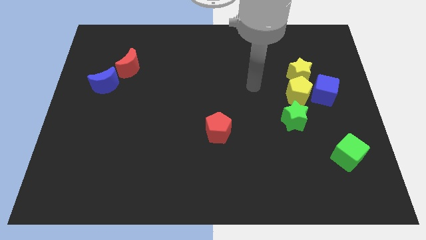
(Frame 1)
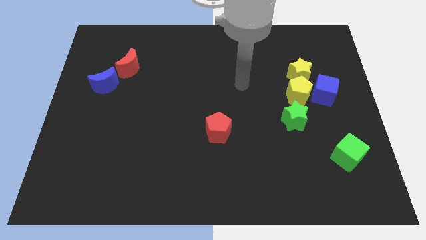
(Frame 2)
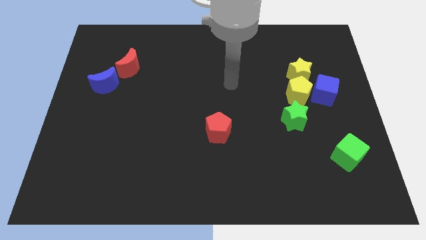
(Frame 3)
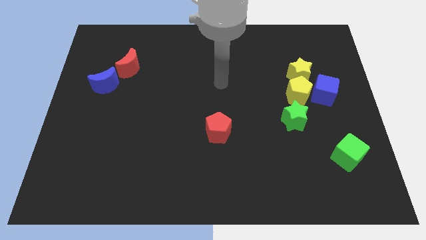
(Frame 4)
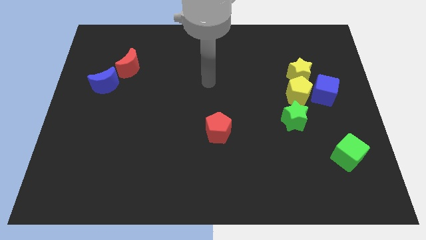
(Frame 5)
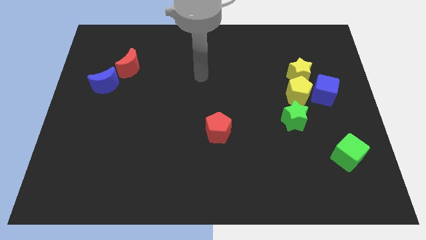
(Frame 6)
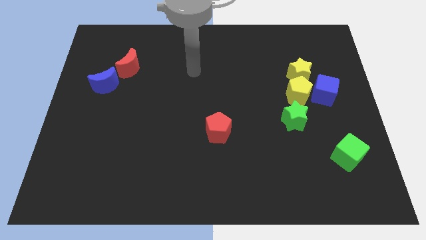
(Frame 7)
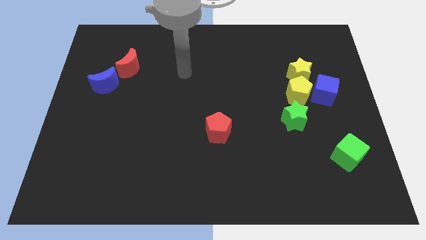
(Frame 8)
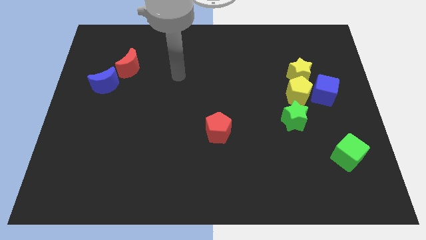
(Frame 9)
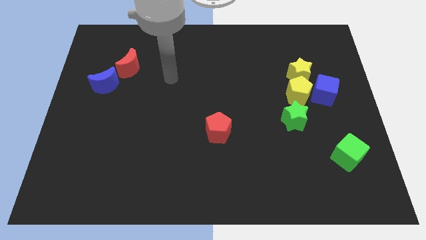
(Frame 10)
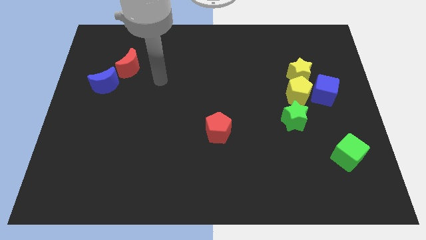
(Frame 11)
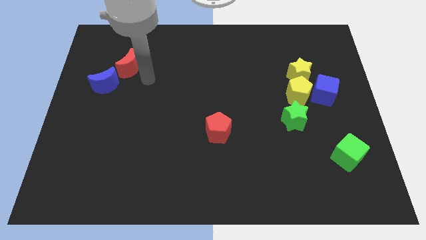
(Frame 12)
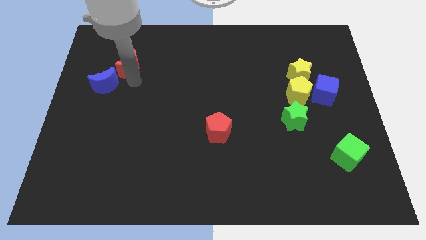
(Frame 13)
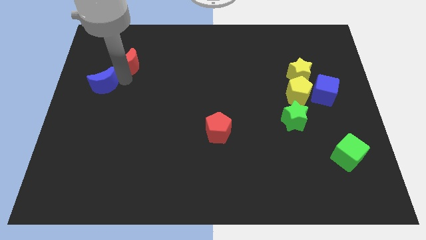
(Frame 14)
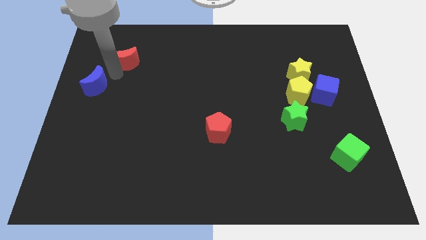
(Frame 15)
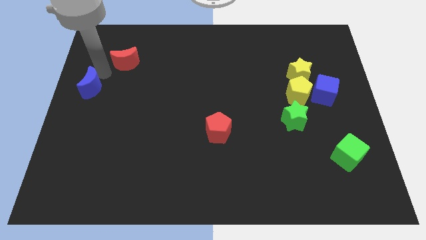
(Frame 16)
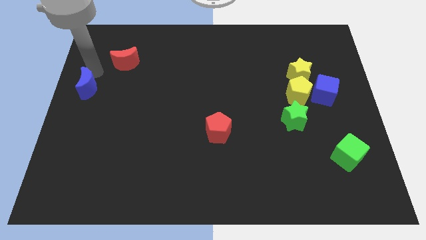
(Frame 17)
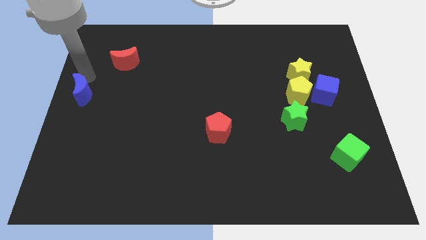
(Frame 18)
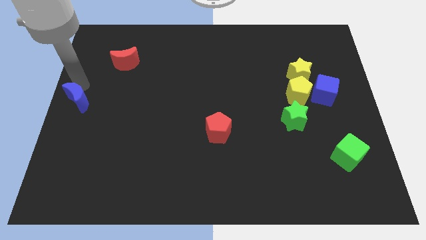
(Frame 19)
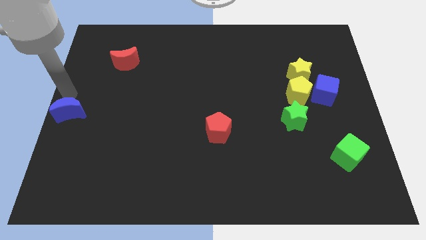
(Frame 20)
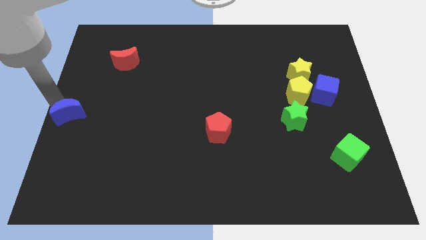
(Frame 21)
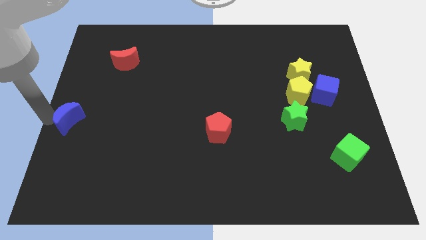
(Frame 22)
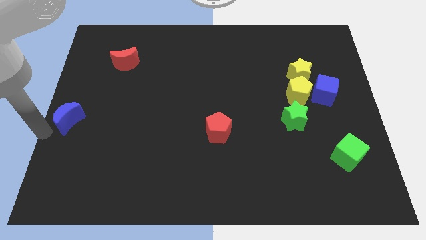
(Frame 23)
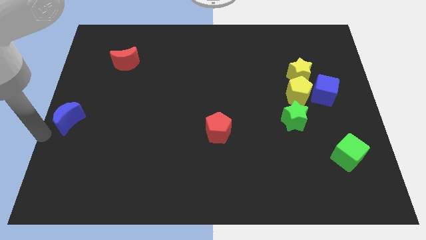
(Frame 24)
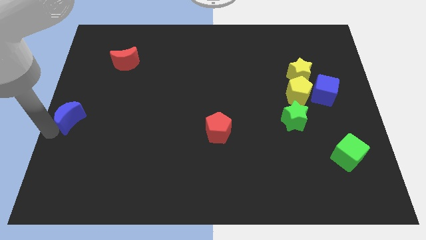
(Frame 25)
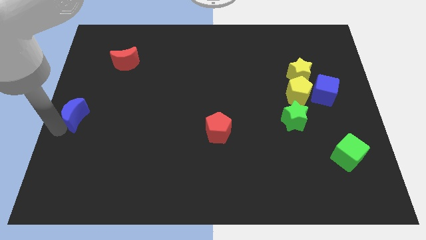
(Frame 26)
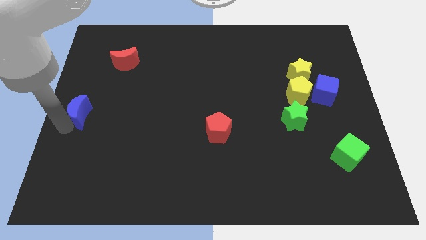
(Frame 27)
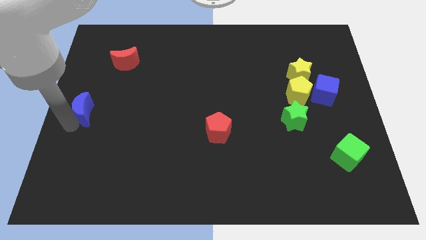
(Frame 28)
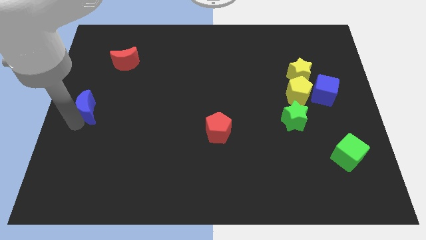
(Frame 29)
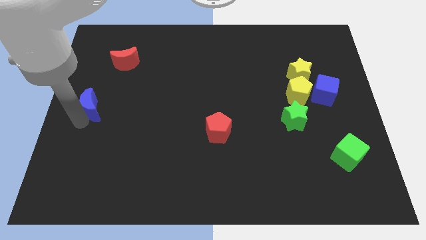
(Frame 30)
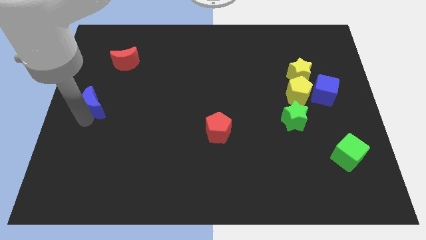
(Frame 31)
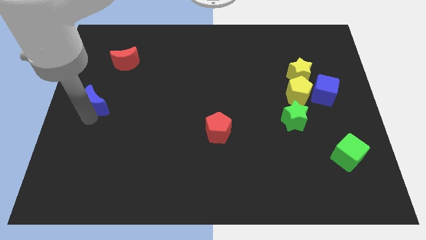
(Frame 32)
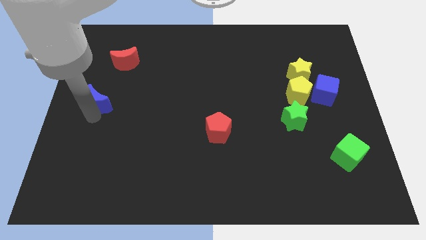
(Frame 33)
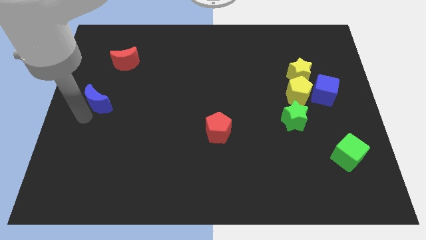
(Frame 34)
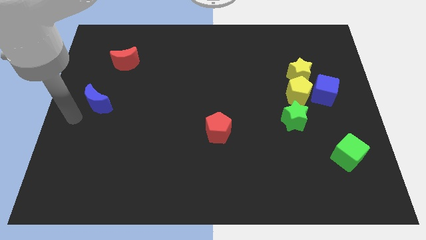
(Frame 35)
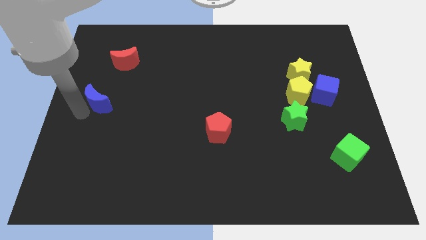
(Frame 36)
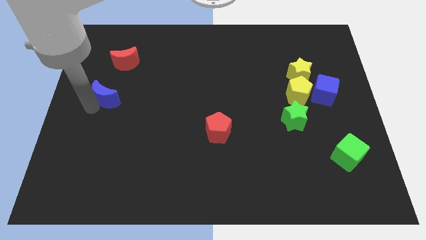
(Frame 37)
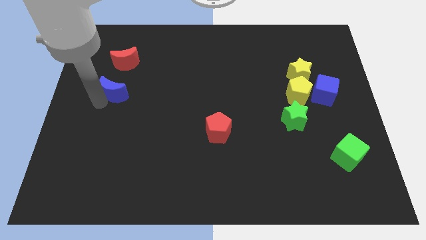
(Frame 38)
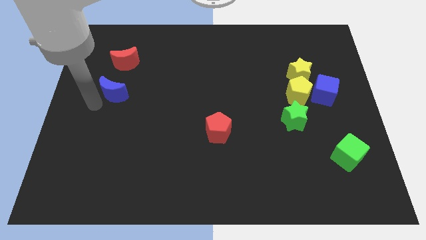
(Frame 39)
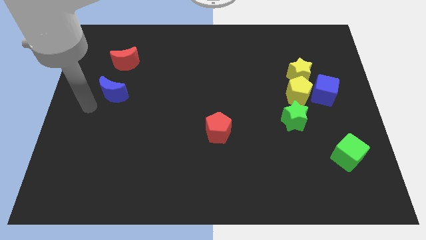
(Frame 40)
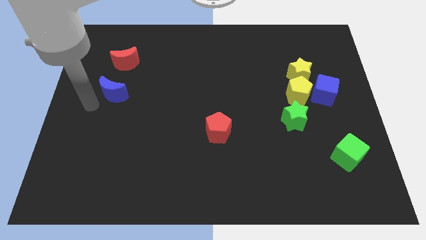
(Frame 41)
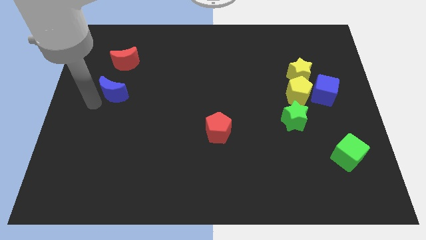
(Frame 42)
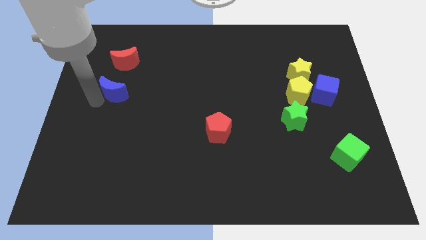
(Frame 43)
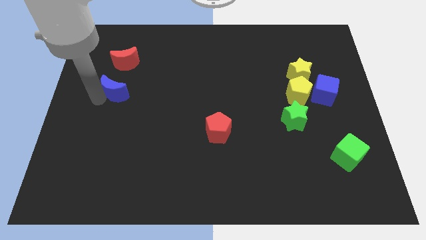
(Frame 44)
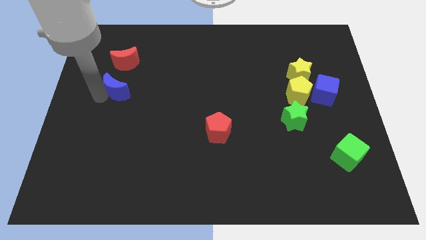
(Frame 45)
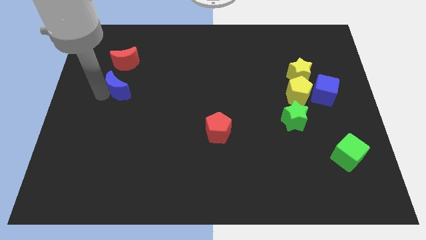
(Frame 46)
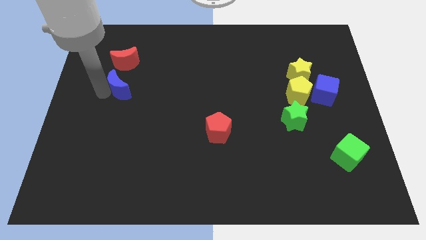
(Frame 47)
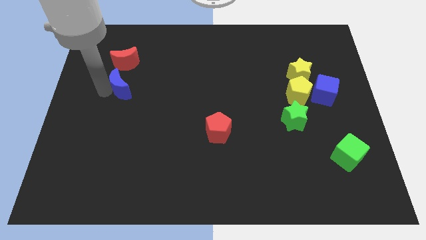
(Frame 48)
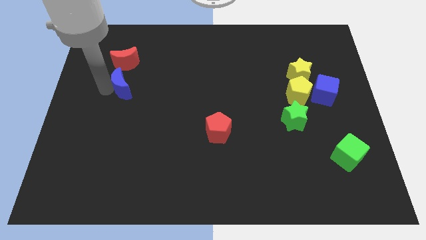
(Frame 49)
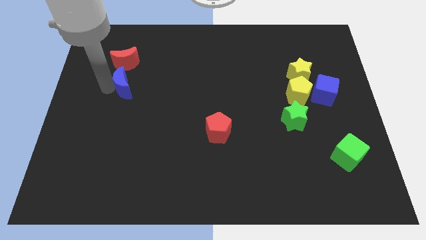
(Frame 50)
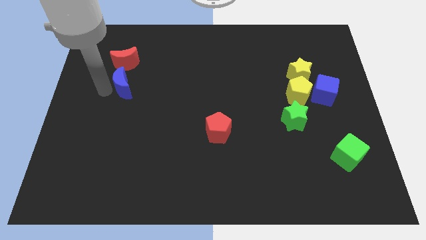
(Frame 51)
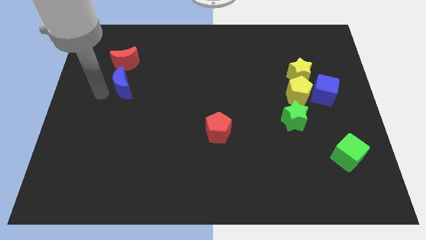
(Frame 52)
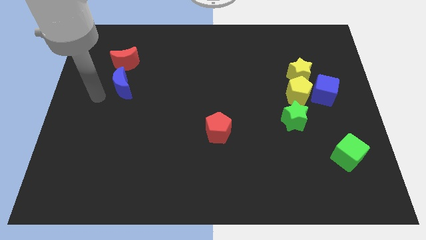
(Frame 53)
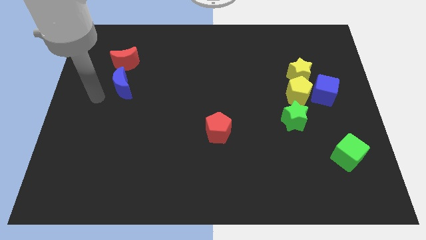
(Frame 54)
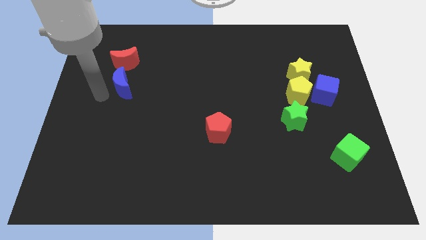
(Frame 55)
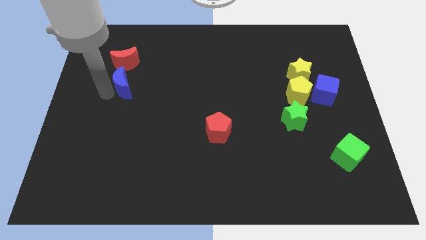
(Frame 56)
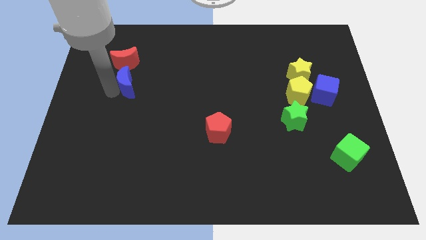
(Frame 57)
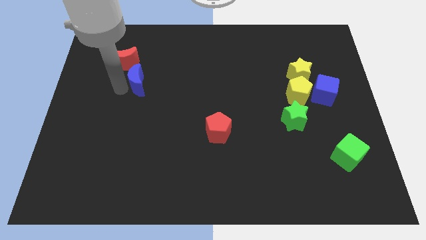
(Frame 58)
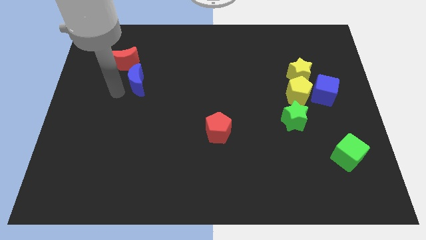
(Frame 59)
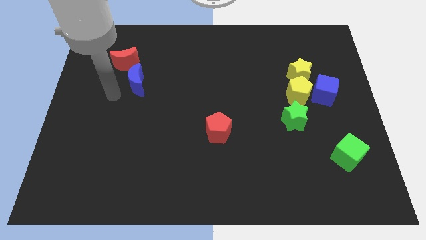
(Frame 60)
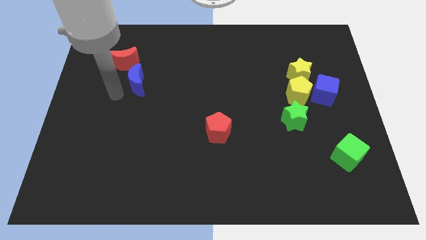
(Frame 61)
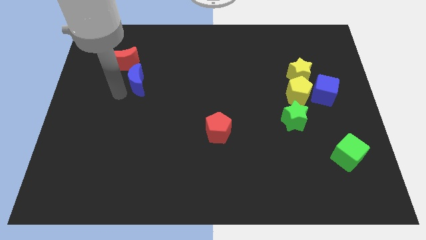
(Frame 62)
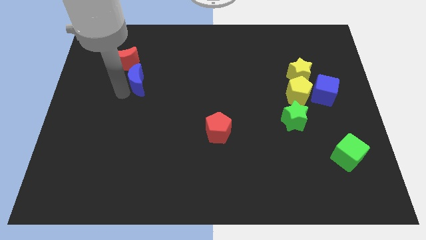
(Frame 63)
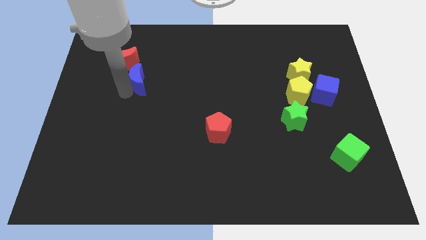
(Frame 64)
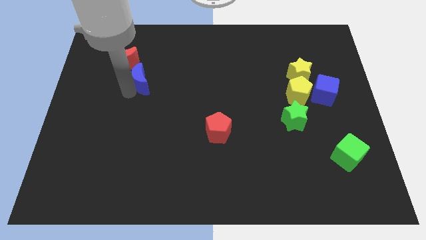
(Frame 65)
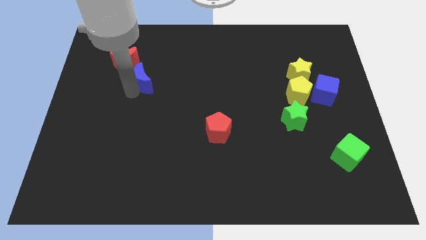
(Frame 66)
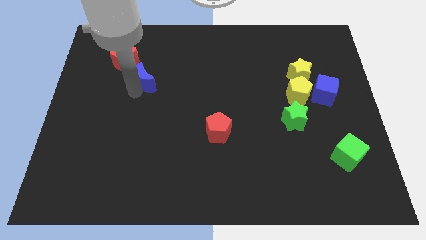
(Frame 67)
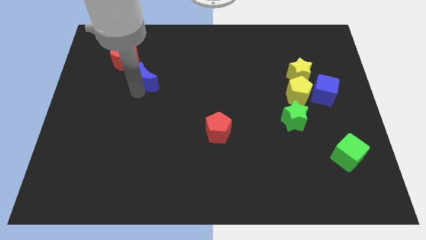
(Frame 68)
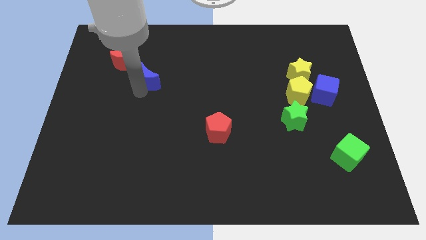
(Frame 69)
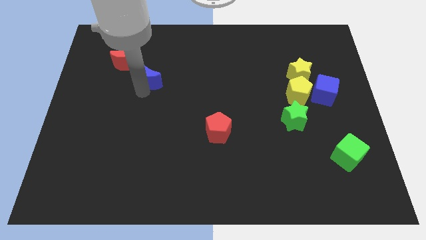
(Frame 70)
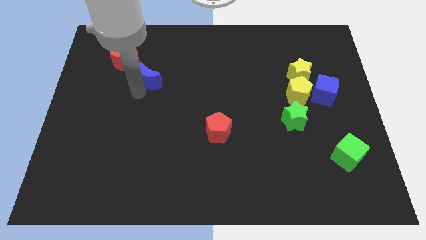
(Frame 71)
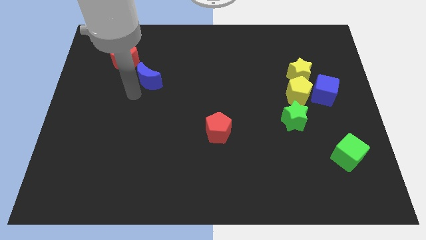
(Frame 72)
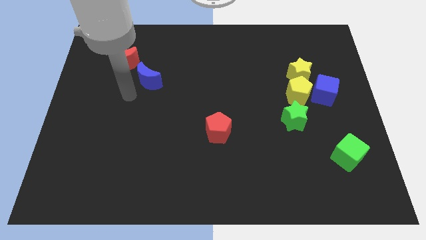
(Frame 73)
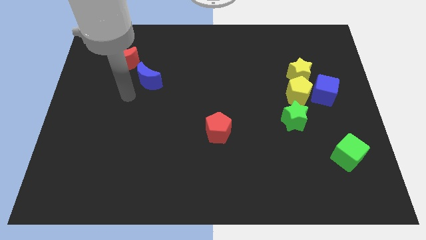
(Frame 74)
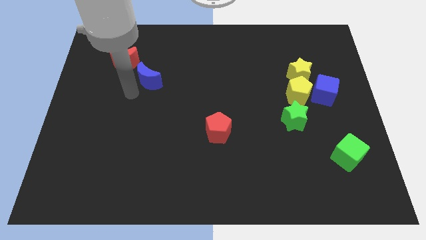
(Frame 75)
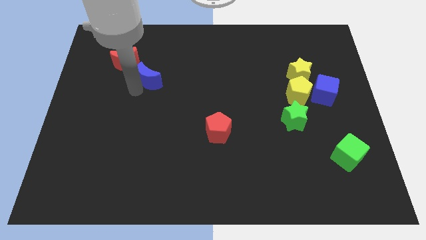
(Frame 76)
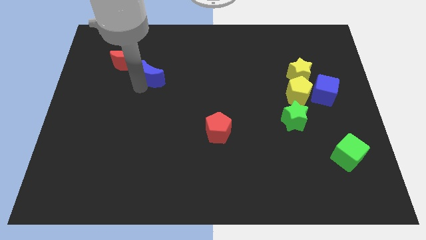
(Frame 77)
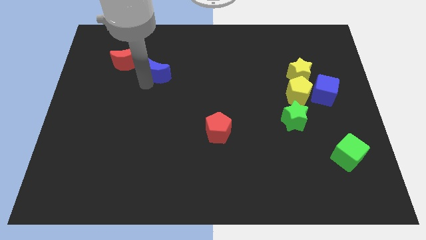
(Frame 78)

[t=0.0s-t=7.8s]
move the blue moon just right of the red moon
